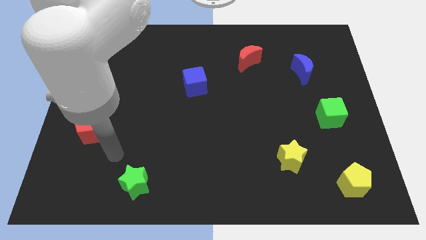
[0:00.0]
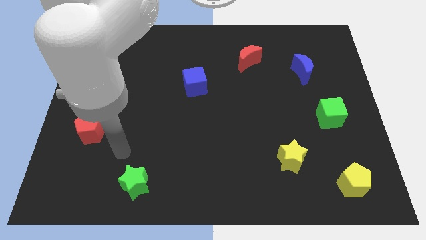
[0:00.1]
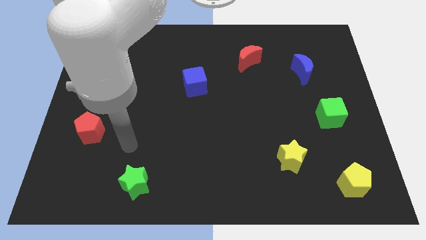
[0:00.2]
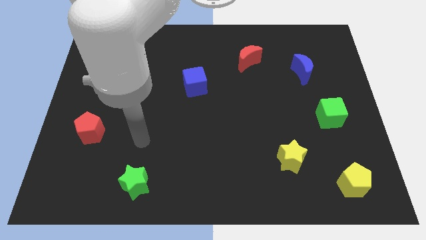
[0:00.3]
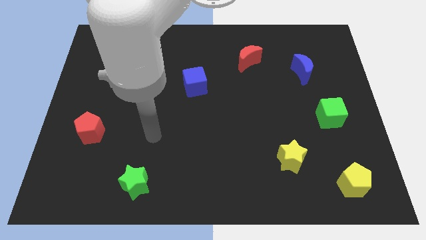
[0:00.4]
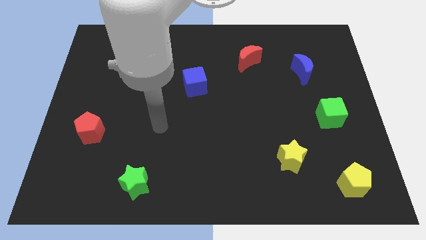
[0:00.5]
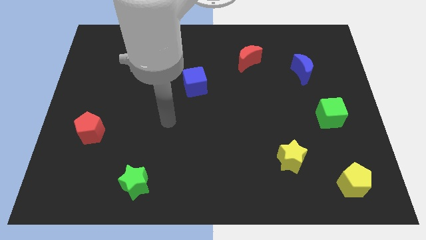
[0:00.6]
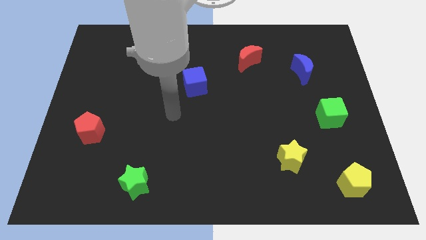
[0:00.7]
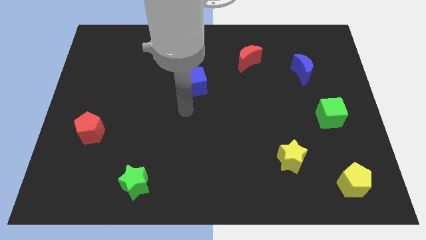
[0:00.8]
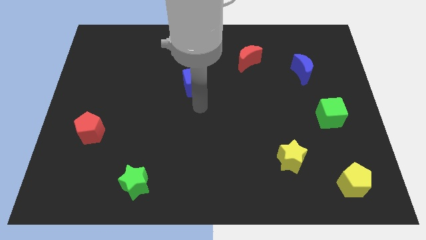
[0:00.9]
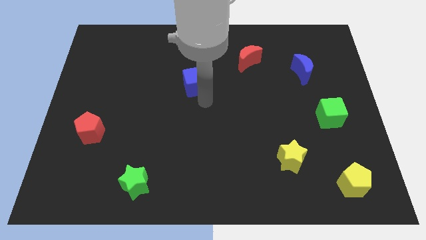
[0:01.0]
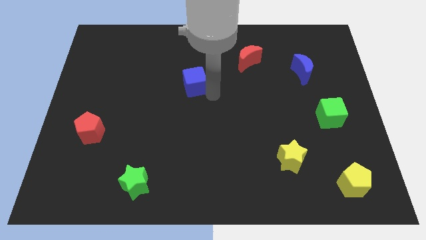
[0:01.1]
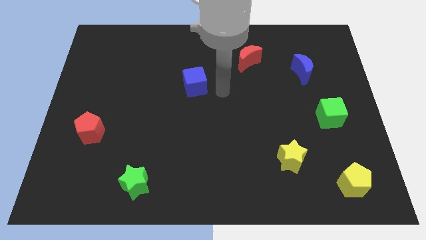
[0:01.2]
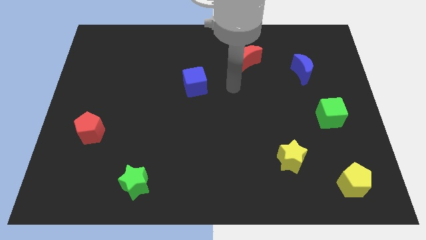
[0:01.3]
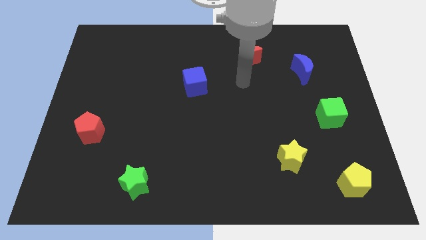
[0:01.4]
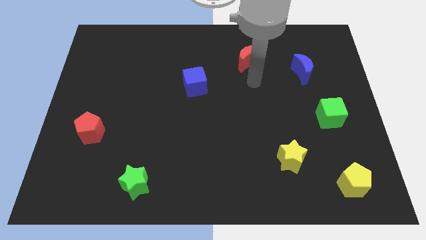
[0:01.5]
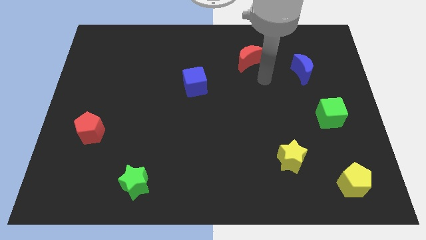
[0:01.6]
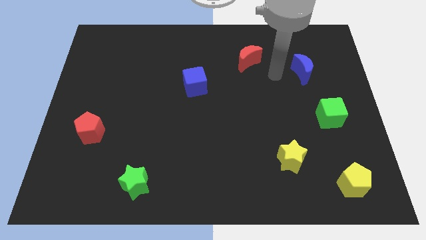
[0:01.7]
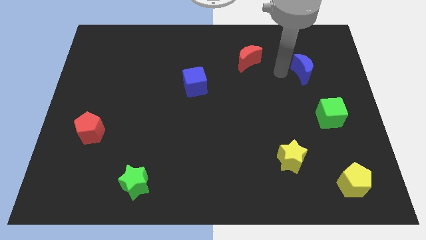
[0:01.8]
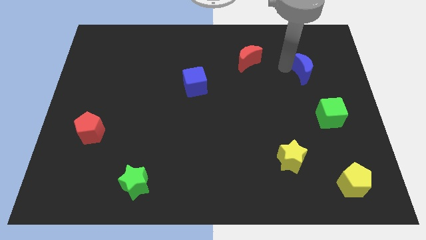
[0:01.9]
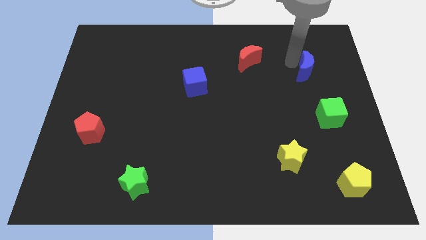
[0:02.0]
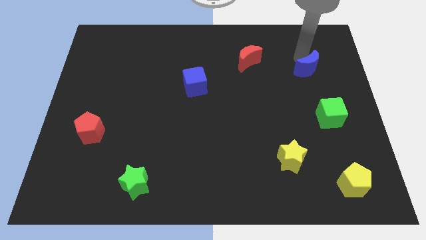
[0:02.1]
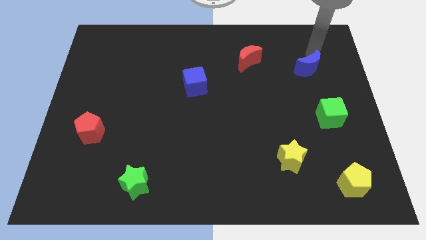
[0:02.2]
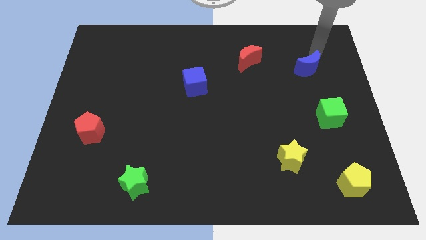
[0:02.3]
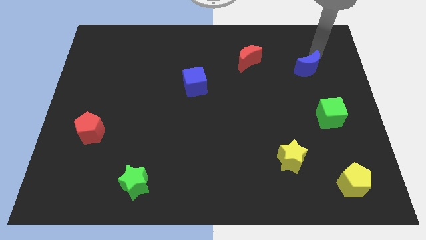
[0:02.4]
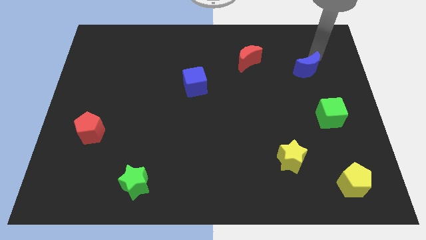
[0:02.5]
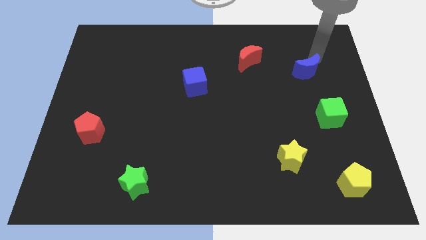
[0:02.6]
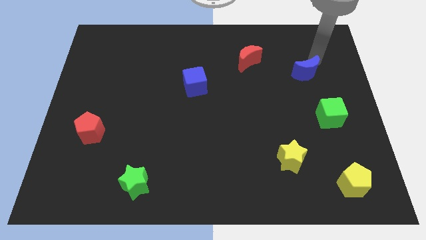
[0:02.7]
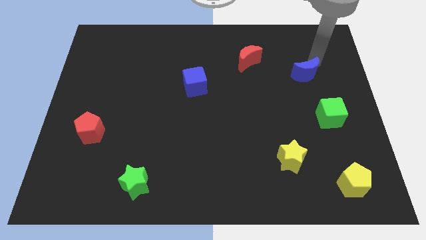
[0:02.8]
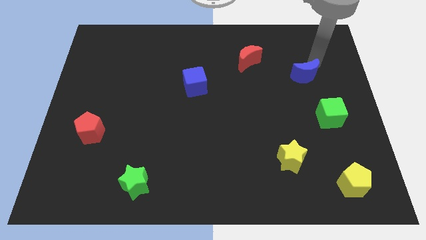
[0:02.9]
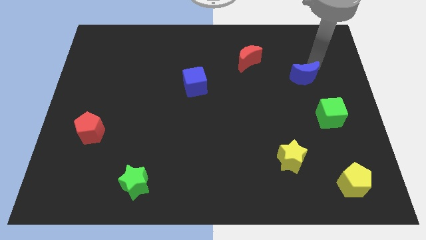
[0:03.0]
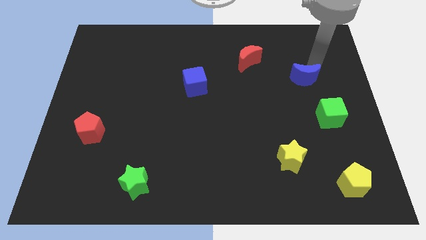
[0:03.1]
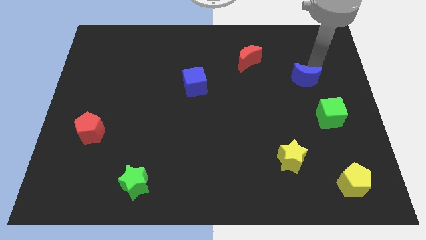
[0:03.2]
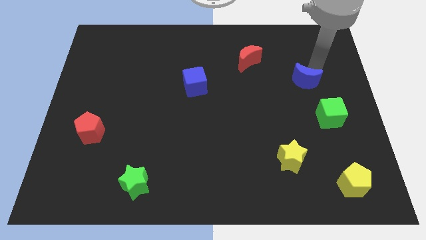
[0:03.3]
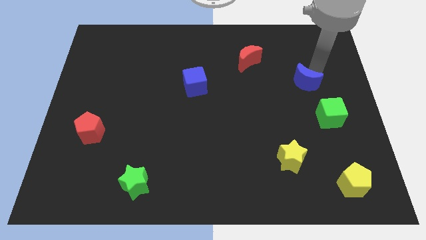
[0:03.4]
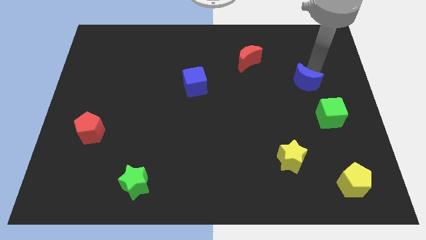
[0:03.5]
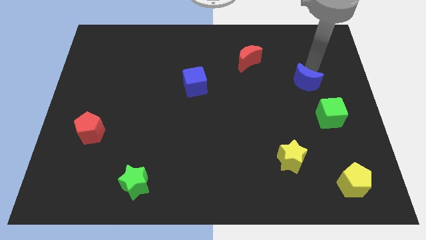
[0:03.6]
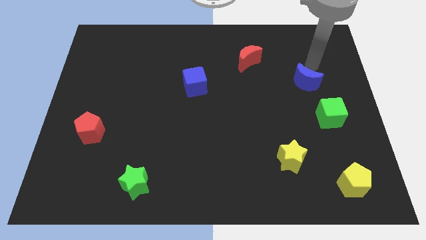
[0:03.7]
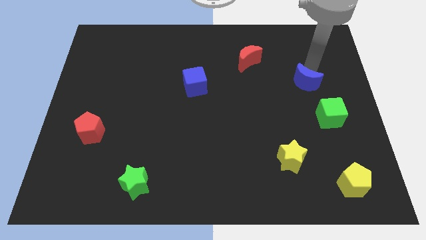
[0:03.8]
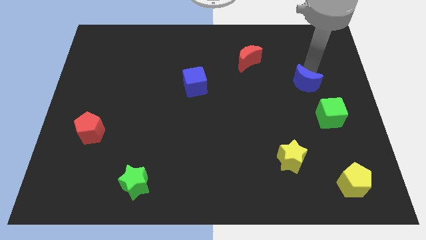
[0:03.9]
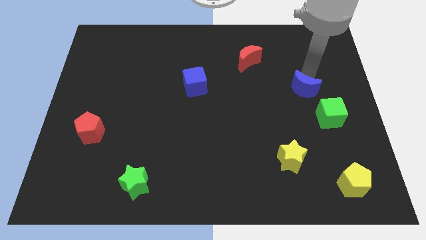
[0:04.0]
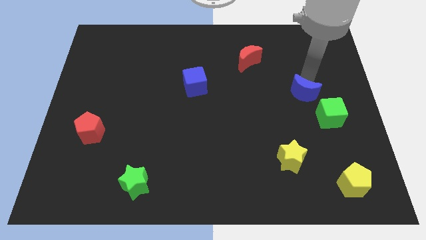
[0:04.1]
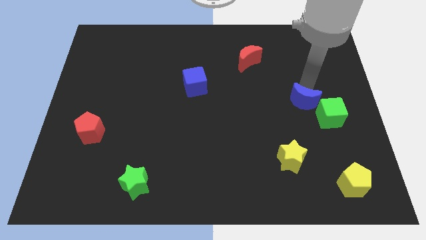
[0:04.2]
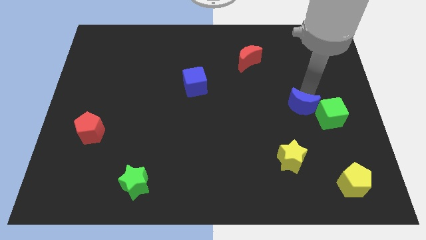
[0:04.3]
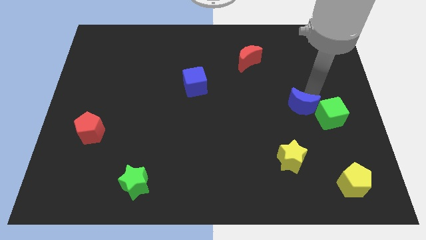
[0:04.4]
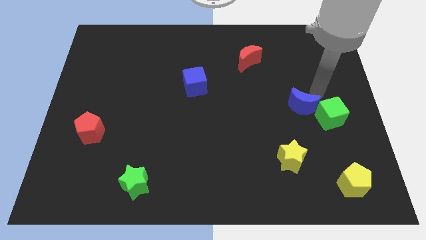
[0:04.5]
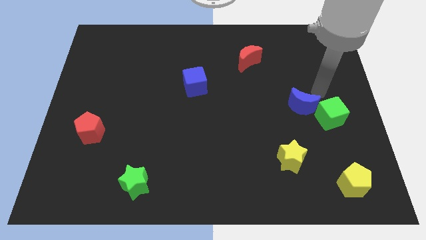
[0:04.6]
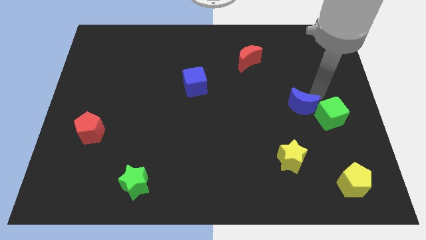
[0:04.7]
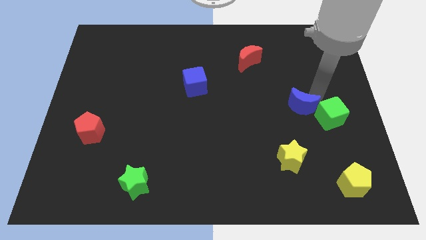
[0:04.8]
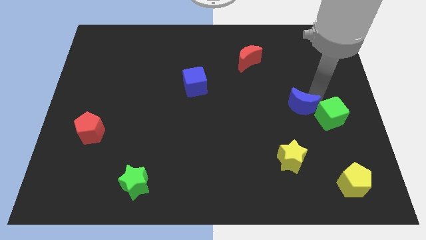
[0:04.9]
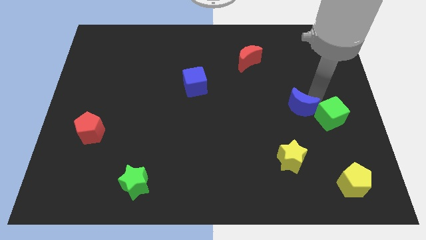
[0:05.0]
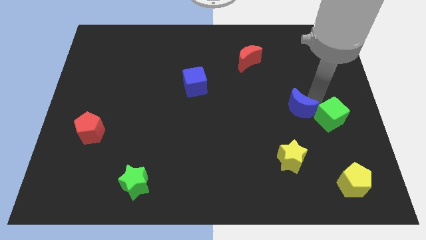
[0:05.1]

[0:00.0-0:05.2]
move the blue moon to the top of the yellow star

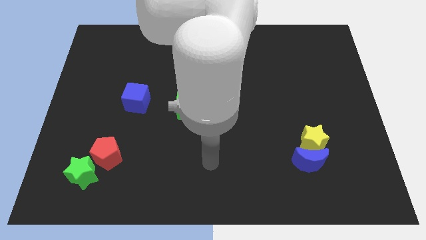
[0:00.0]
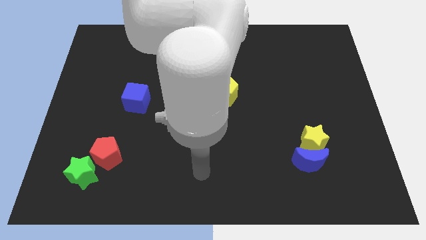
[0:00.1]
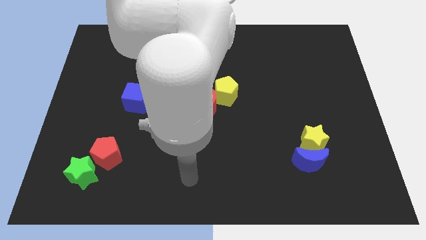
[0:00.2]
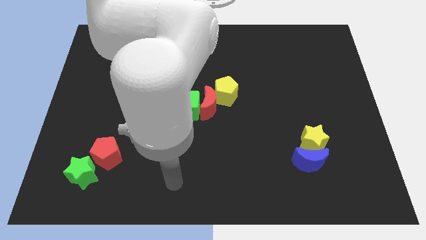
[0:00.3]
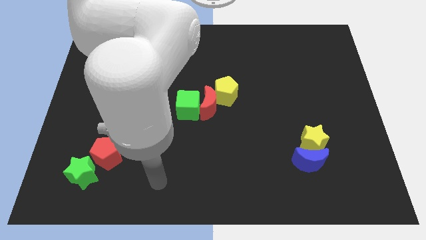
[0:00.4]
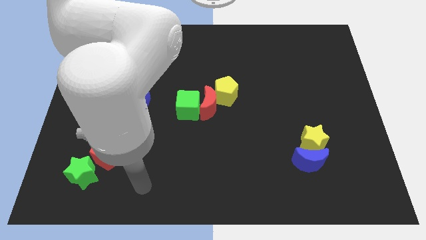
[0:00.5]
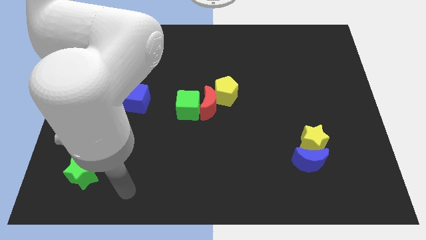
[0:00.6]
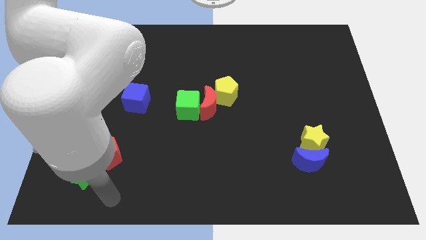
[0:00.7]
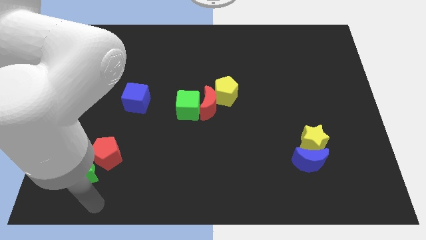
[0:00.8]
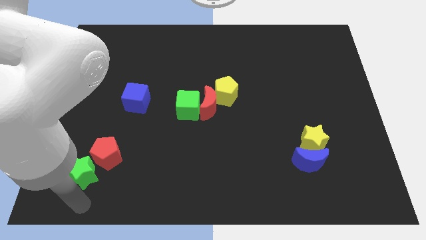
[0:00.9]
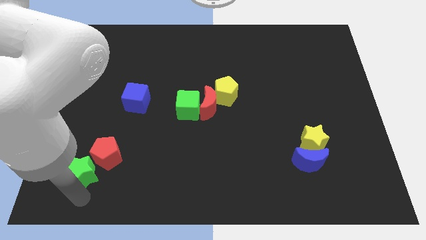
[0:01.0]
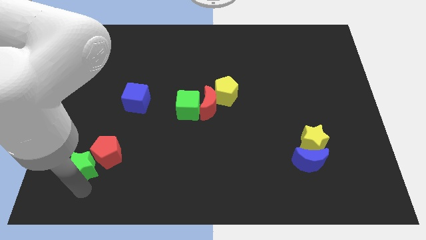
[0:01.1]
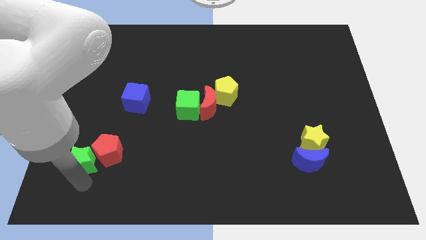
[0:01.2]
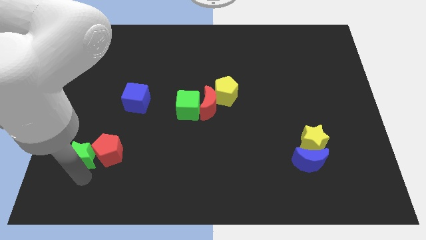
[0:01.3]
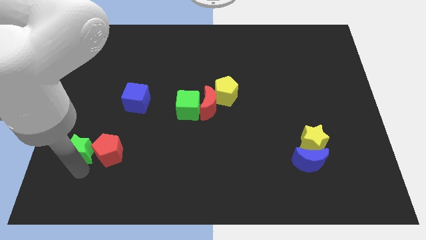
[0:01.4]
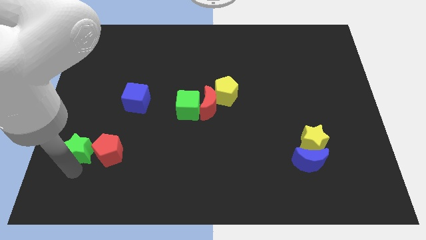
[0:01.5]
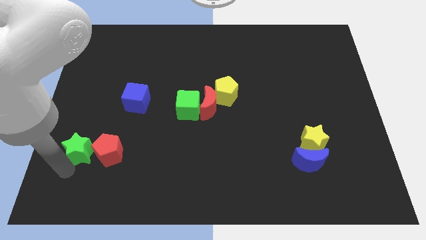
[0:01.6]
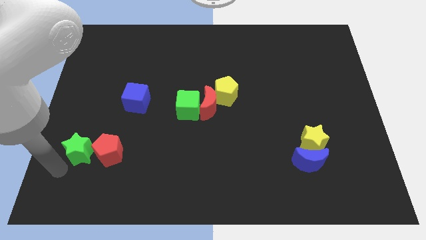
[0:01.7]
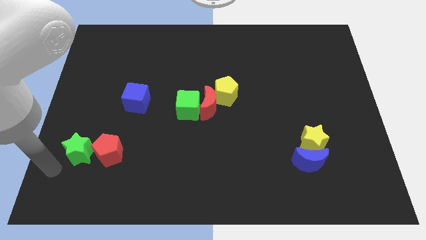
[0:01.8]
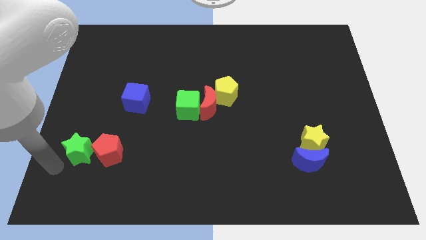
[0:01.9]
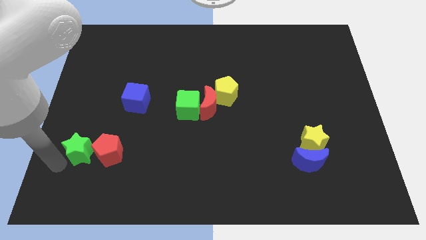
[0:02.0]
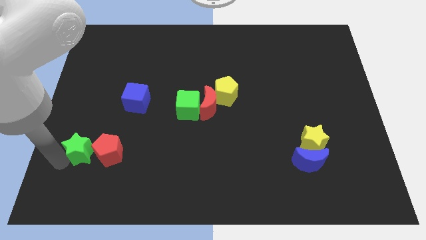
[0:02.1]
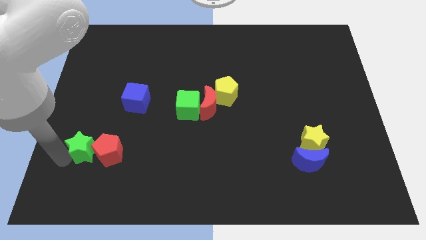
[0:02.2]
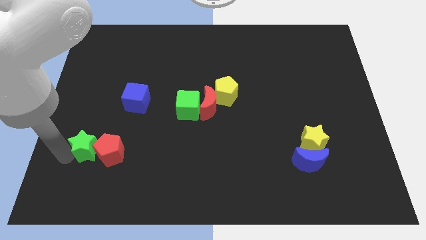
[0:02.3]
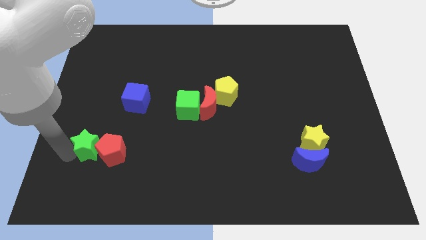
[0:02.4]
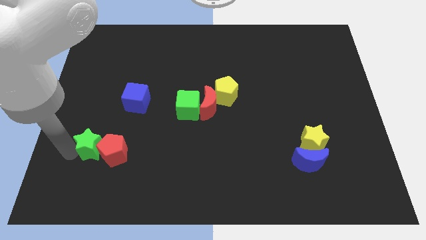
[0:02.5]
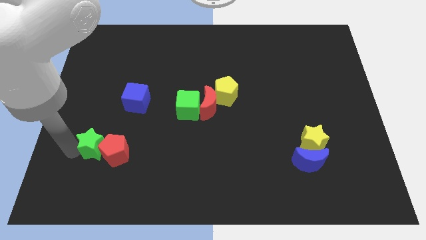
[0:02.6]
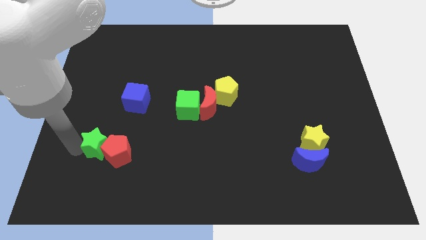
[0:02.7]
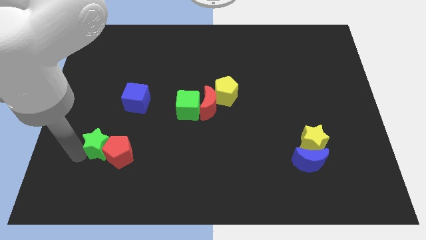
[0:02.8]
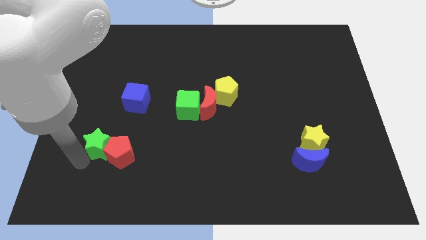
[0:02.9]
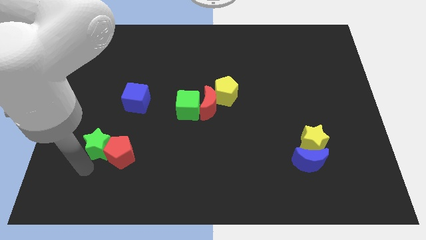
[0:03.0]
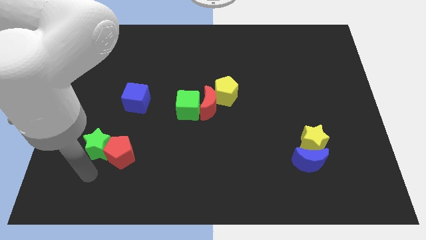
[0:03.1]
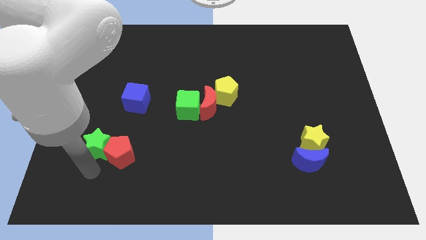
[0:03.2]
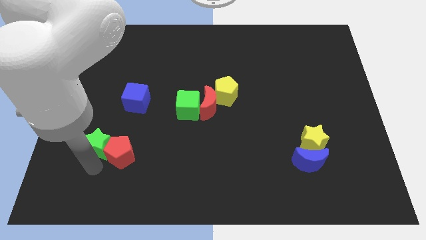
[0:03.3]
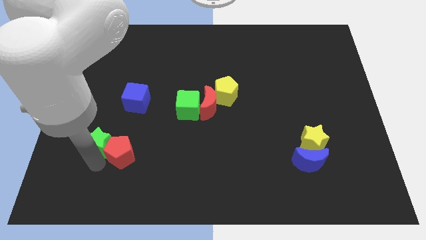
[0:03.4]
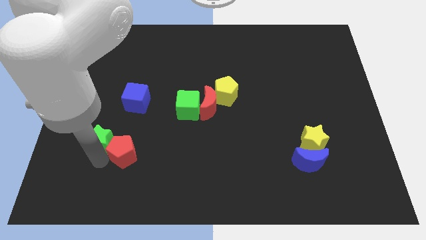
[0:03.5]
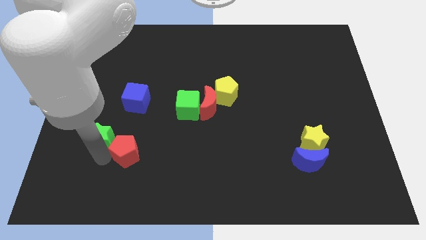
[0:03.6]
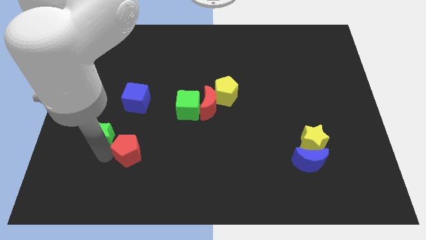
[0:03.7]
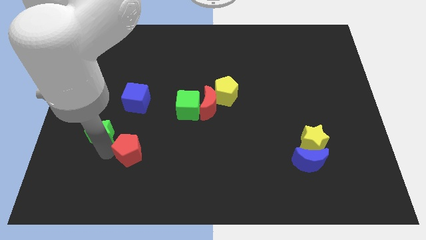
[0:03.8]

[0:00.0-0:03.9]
put the green star to the bottom left side of the blue cube
